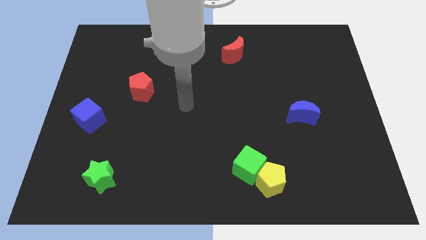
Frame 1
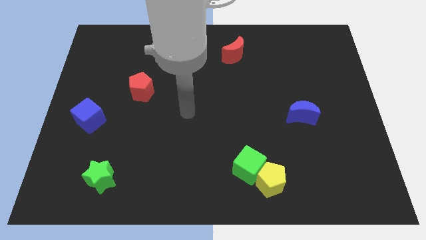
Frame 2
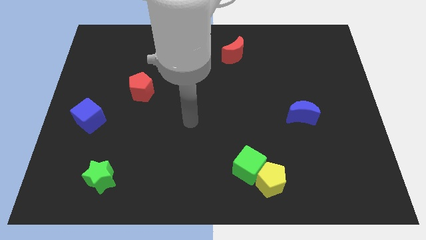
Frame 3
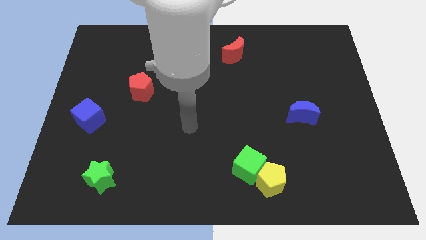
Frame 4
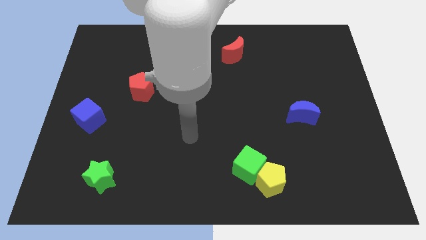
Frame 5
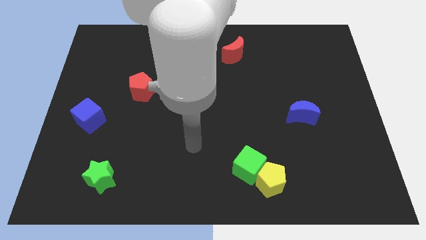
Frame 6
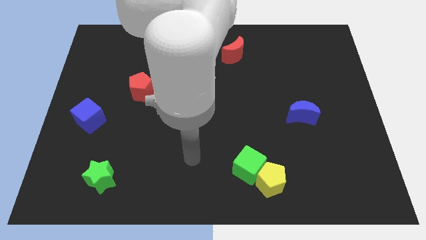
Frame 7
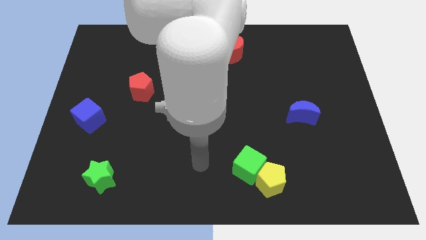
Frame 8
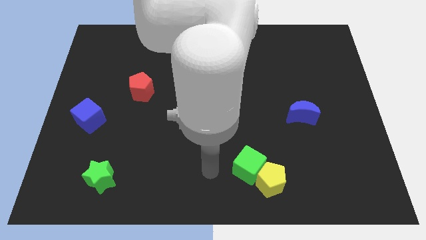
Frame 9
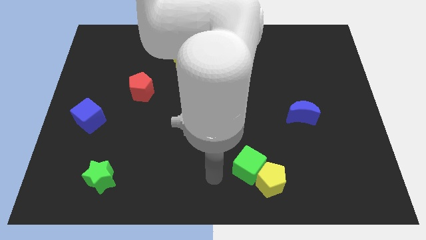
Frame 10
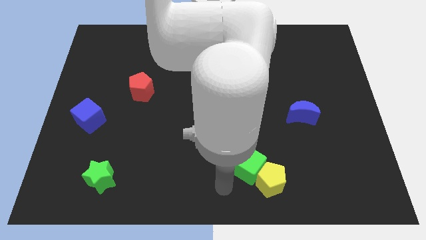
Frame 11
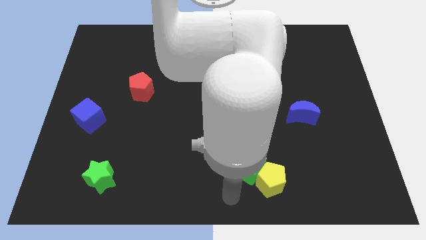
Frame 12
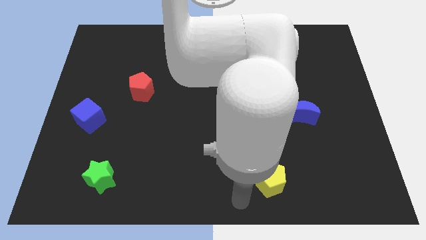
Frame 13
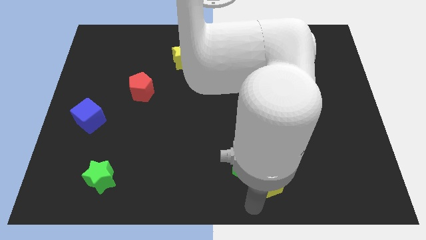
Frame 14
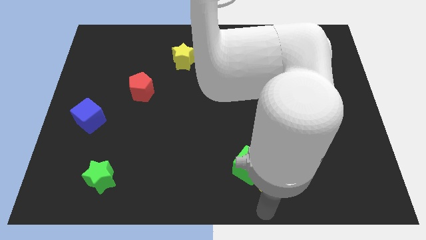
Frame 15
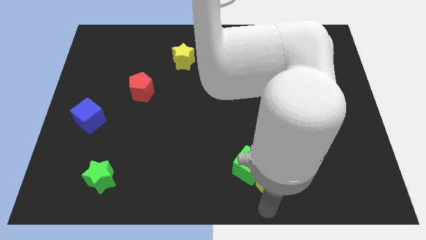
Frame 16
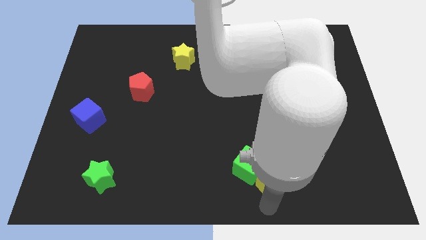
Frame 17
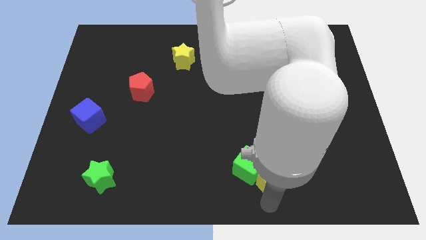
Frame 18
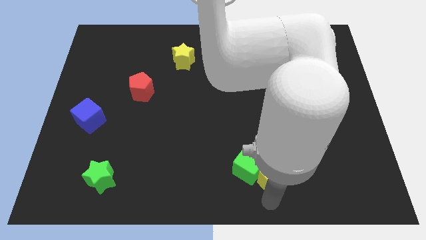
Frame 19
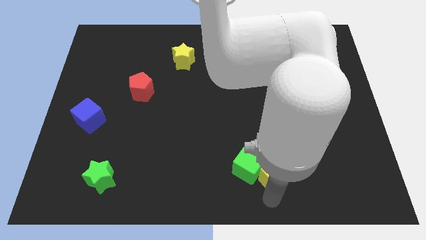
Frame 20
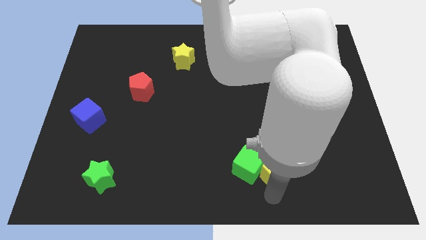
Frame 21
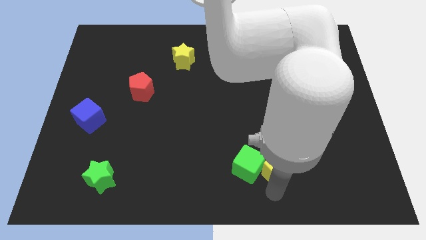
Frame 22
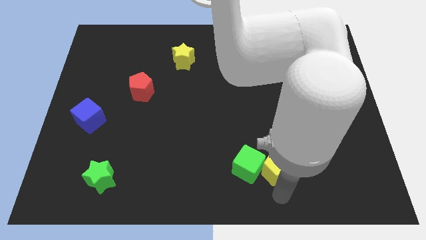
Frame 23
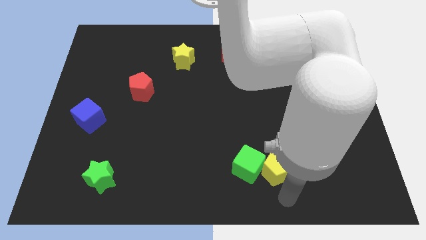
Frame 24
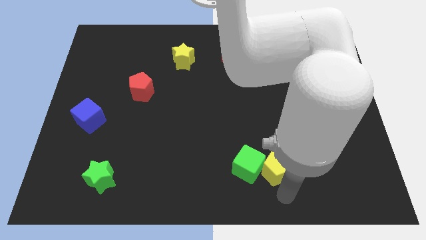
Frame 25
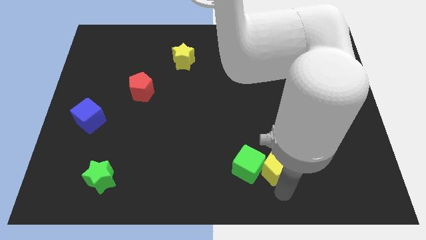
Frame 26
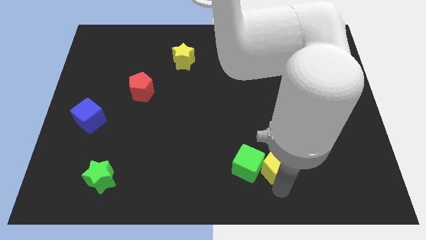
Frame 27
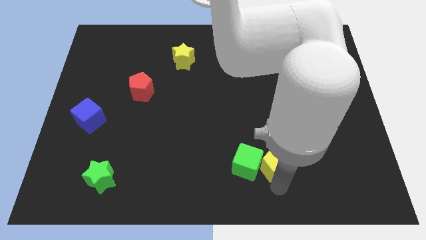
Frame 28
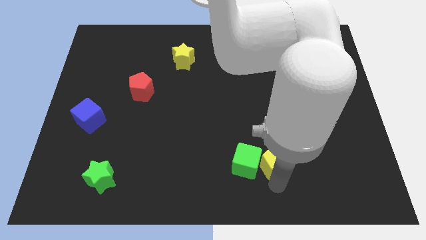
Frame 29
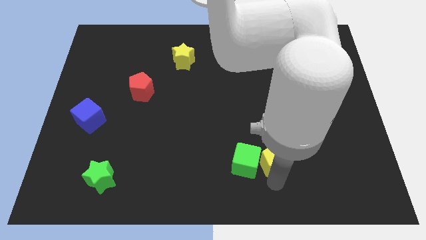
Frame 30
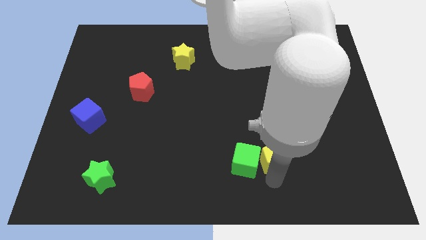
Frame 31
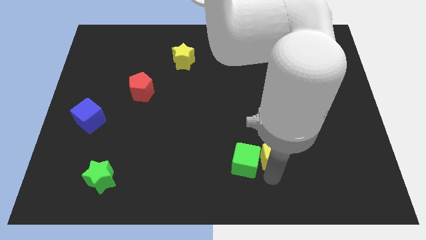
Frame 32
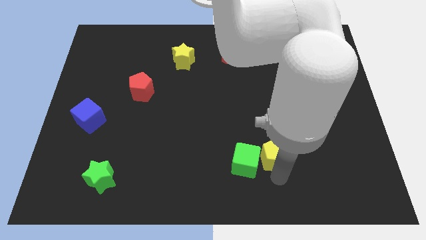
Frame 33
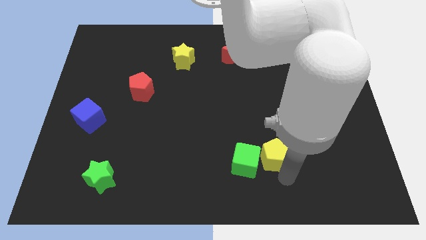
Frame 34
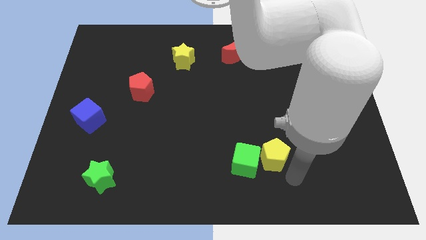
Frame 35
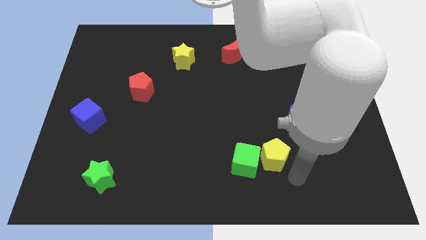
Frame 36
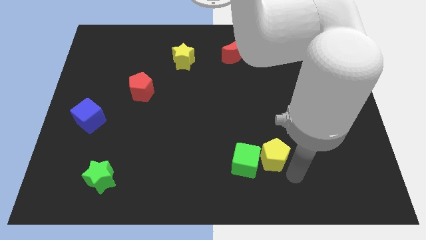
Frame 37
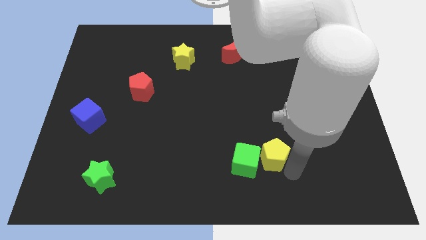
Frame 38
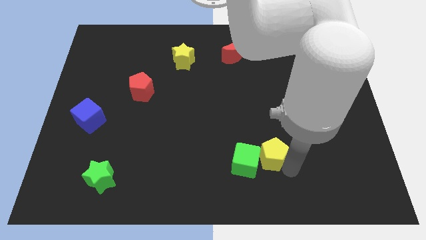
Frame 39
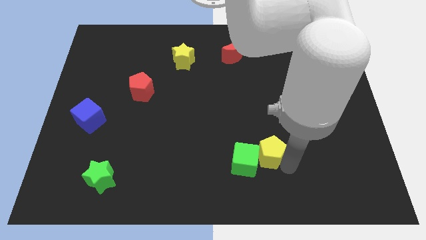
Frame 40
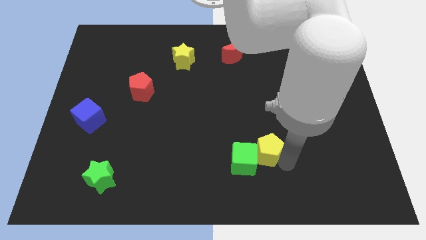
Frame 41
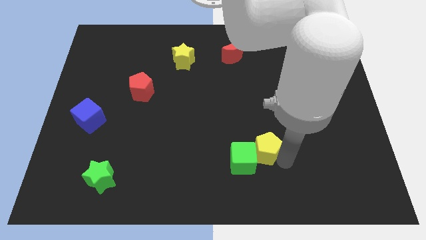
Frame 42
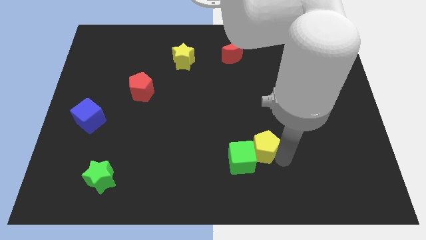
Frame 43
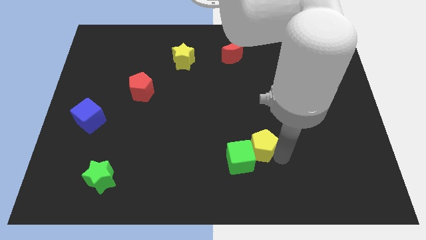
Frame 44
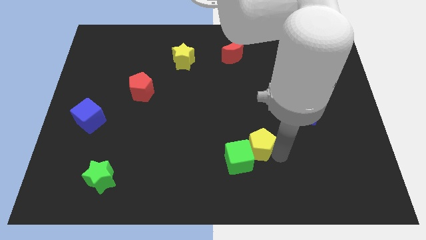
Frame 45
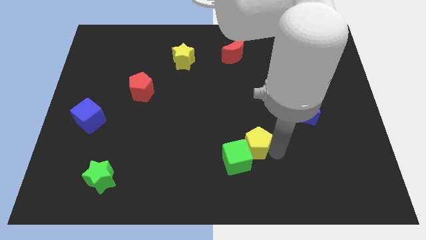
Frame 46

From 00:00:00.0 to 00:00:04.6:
push the yellow pentagon slightly up and then to the left

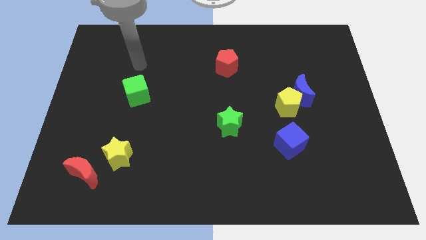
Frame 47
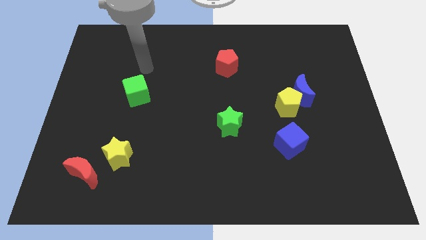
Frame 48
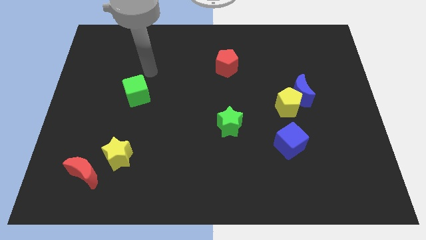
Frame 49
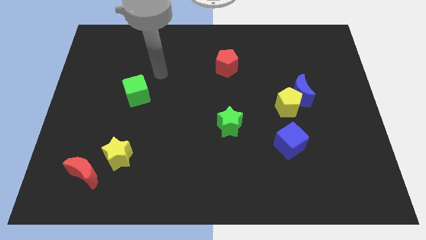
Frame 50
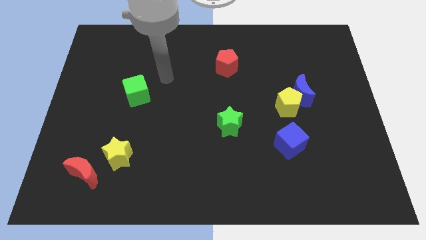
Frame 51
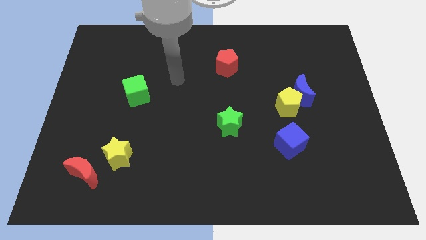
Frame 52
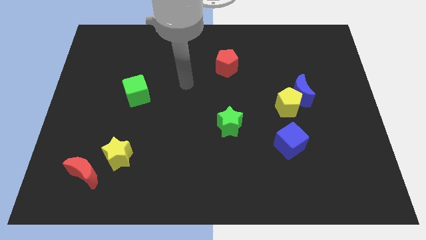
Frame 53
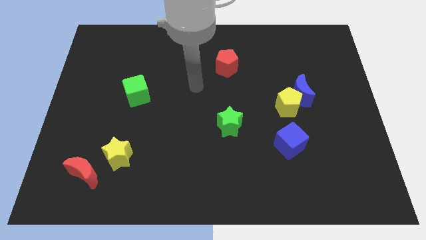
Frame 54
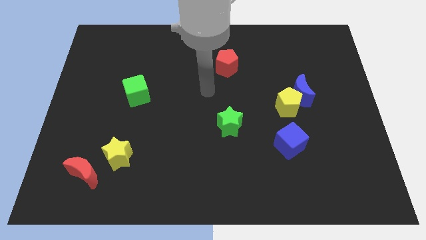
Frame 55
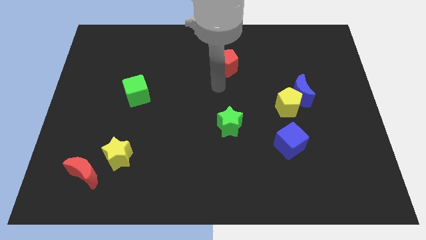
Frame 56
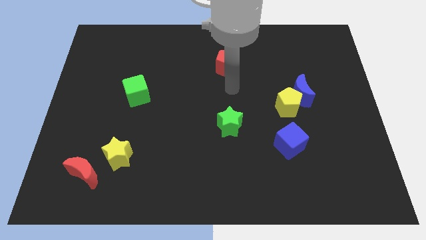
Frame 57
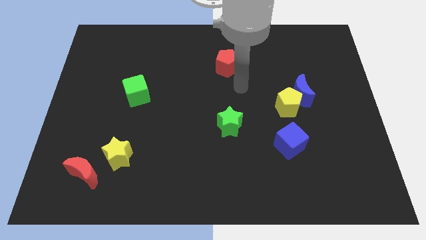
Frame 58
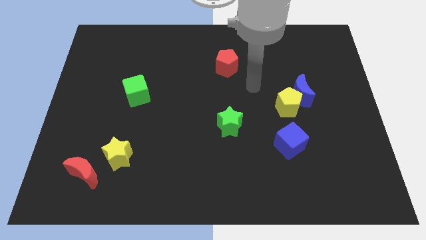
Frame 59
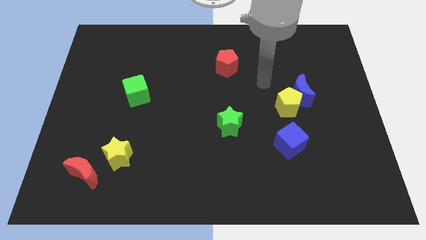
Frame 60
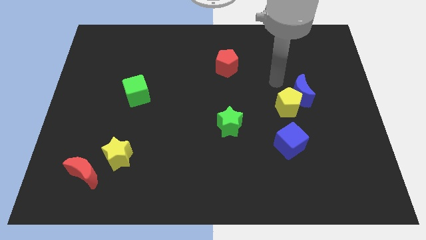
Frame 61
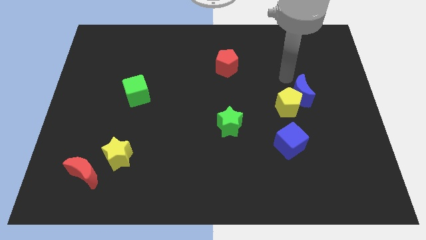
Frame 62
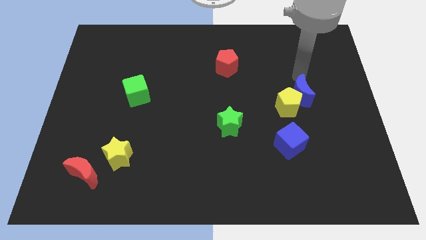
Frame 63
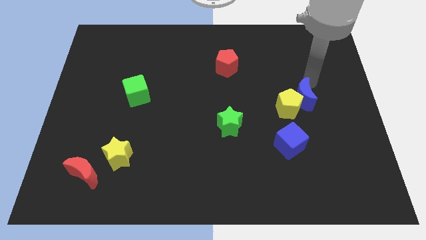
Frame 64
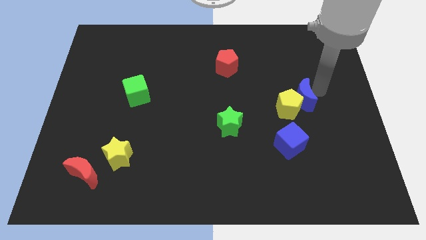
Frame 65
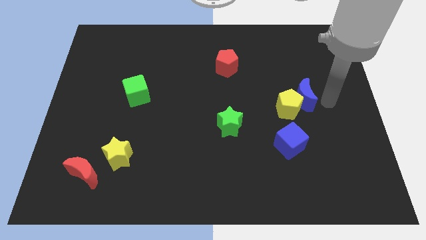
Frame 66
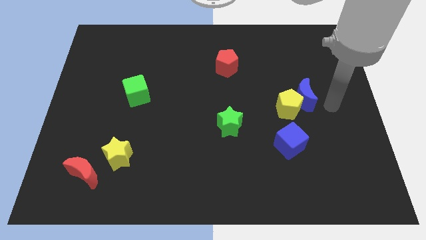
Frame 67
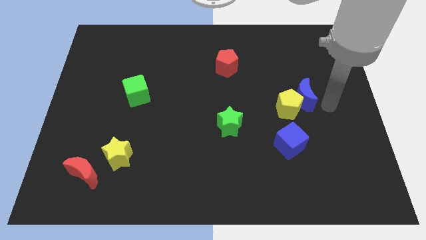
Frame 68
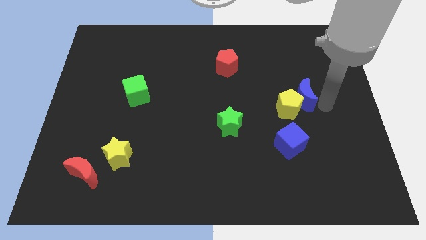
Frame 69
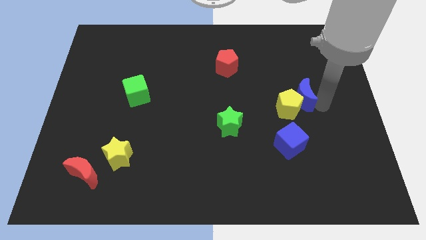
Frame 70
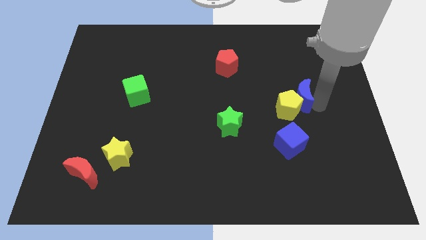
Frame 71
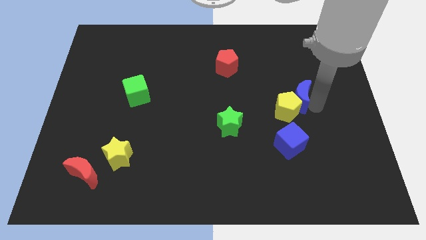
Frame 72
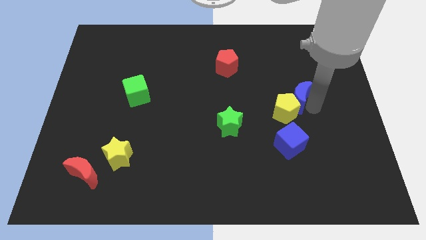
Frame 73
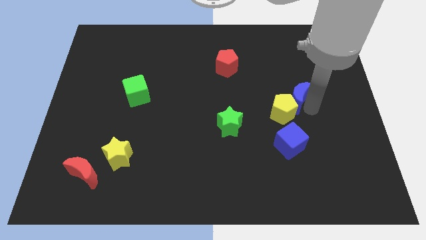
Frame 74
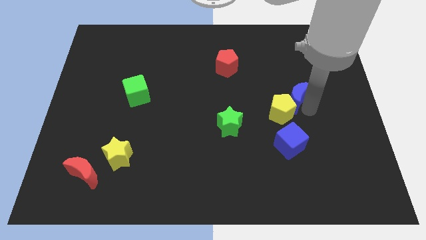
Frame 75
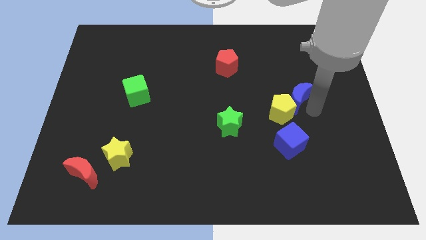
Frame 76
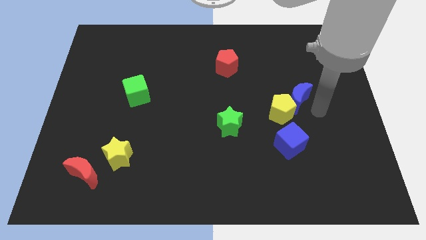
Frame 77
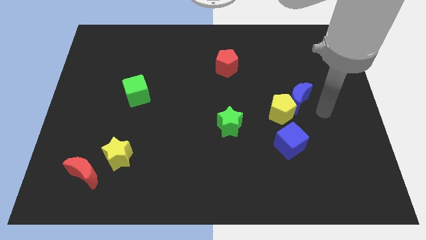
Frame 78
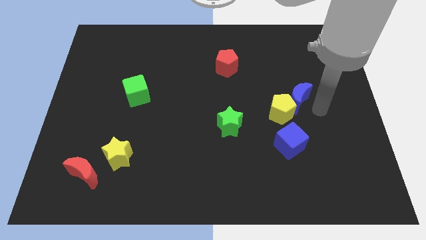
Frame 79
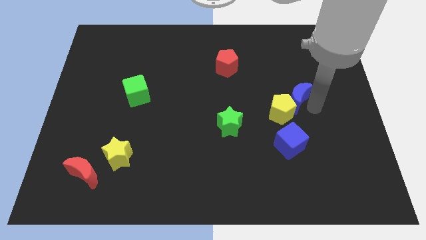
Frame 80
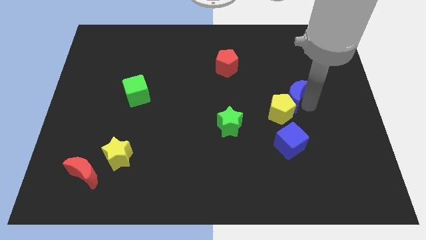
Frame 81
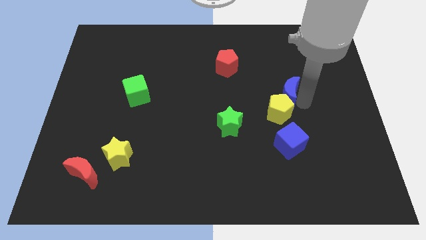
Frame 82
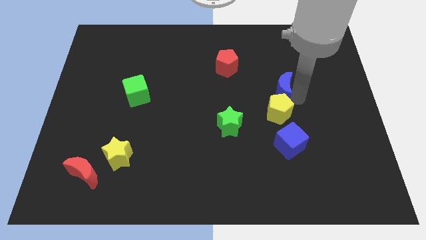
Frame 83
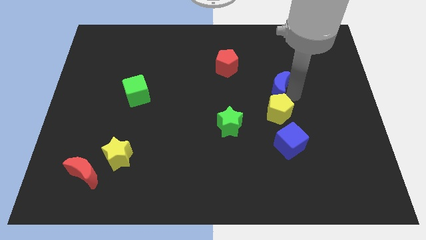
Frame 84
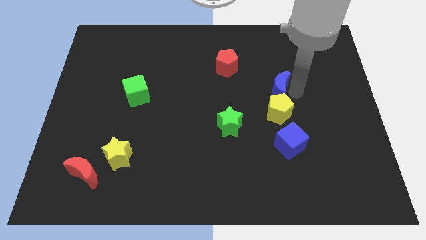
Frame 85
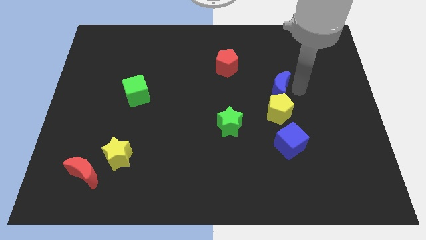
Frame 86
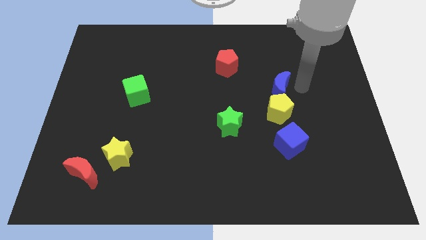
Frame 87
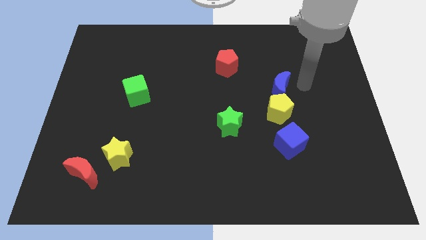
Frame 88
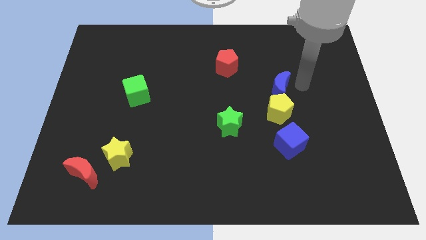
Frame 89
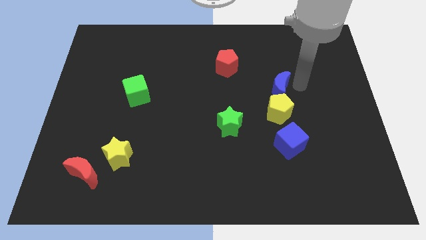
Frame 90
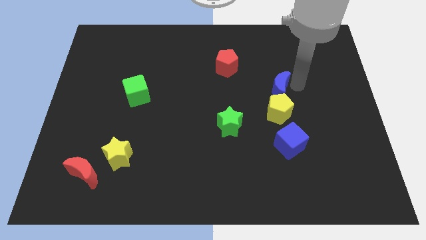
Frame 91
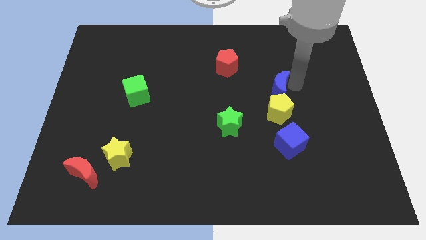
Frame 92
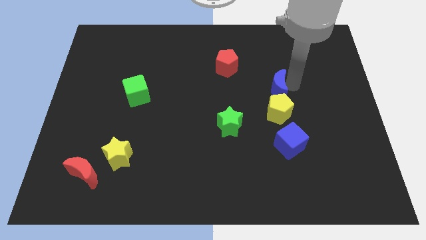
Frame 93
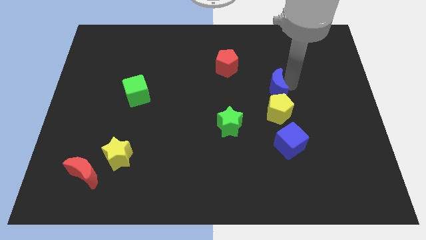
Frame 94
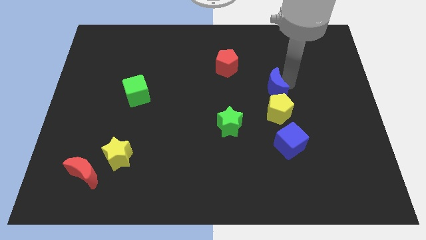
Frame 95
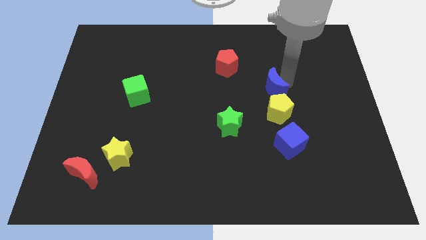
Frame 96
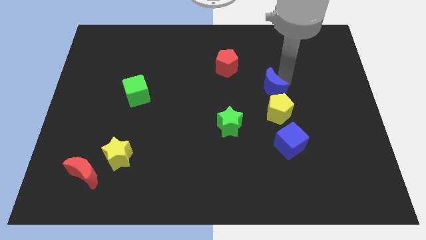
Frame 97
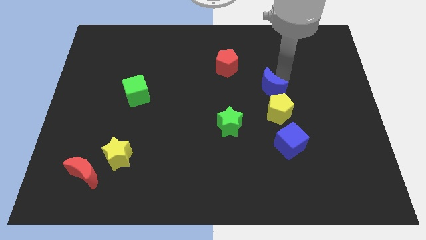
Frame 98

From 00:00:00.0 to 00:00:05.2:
slide the blue moon to the left a little
